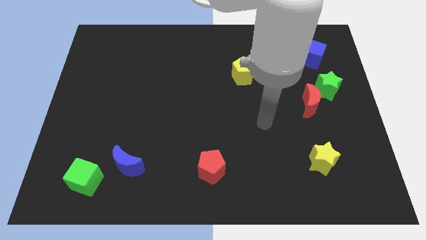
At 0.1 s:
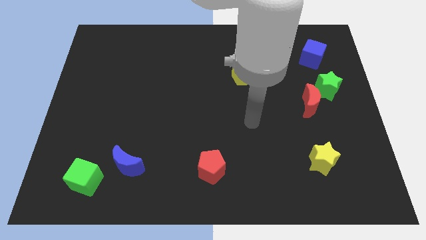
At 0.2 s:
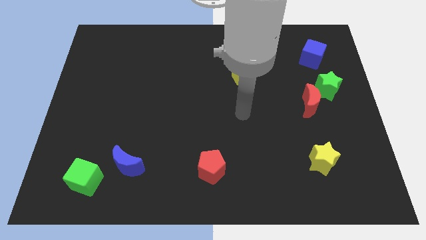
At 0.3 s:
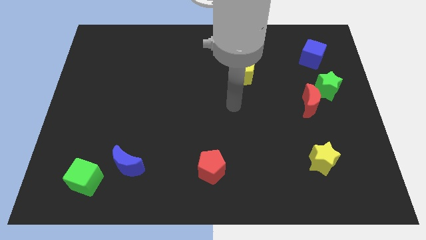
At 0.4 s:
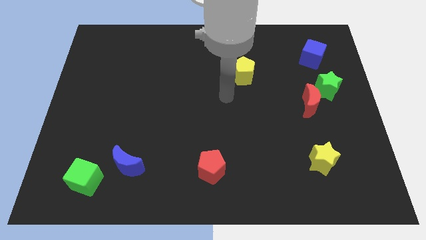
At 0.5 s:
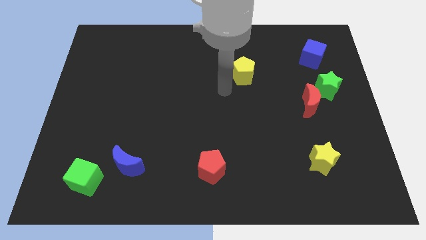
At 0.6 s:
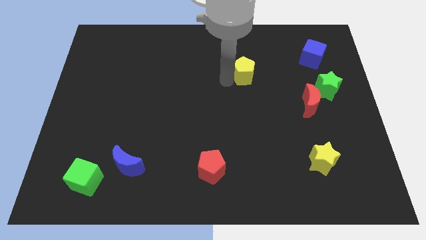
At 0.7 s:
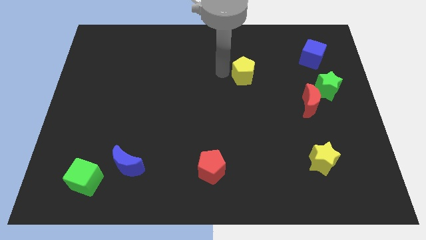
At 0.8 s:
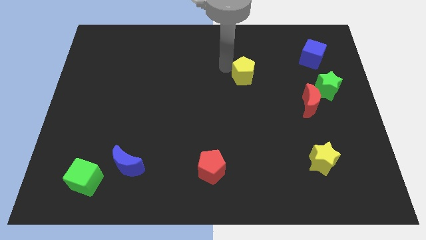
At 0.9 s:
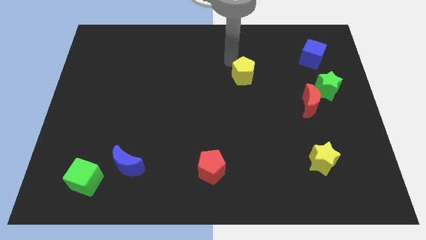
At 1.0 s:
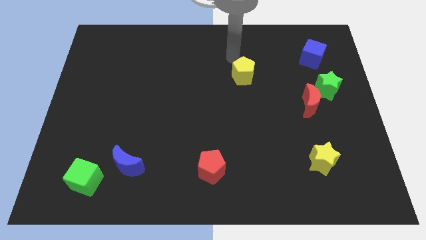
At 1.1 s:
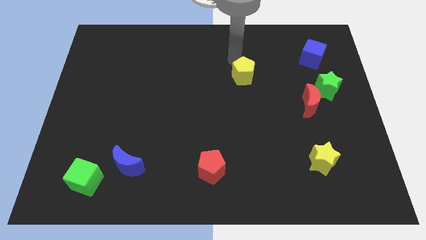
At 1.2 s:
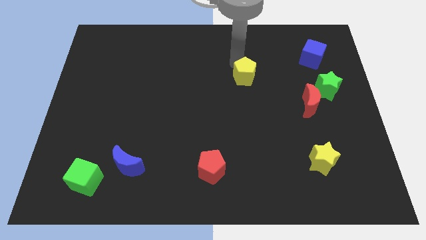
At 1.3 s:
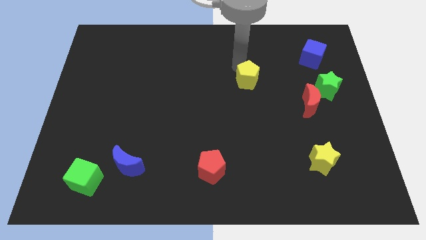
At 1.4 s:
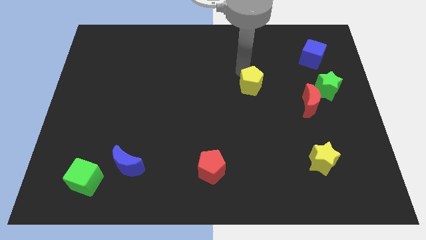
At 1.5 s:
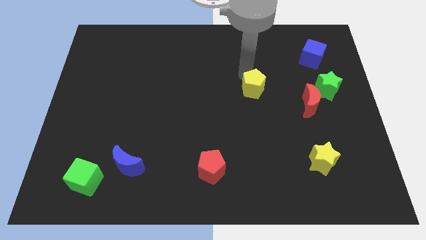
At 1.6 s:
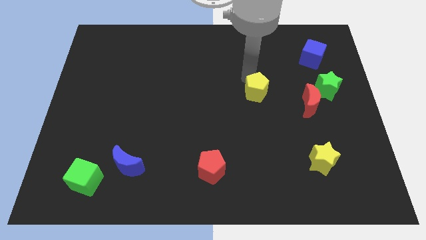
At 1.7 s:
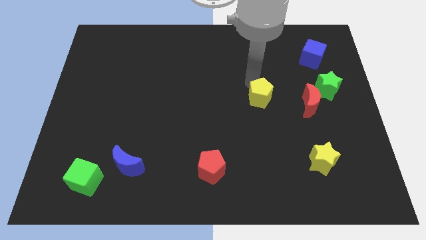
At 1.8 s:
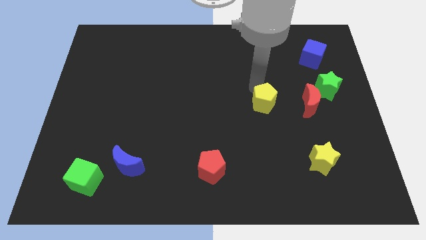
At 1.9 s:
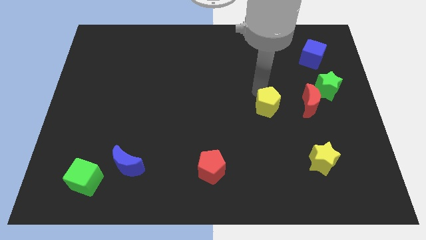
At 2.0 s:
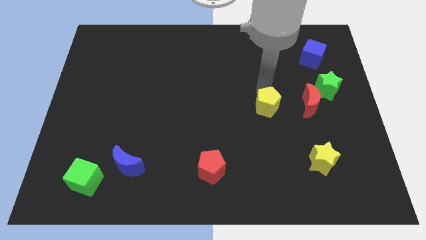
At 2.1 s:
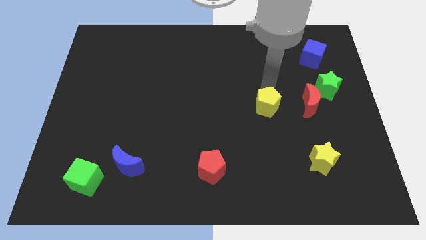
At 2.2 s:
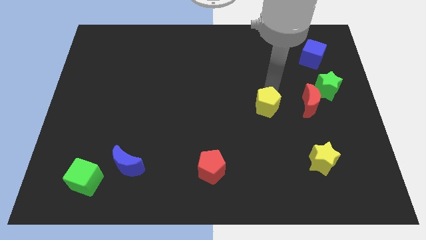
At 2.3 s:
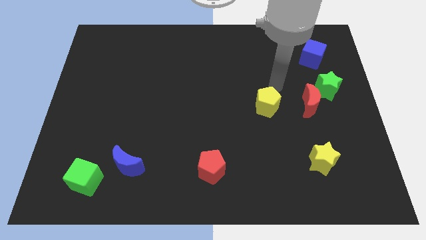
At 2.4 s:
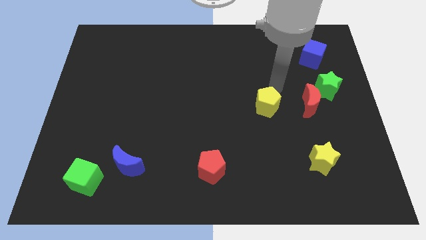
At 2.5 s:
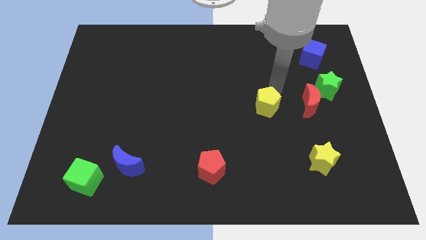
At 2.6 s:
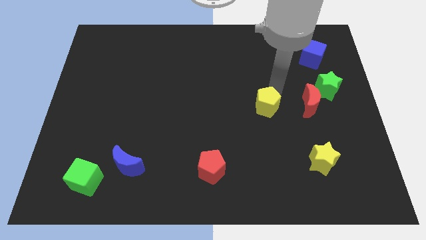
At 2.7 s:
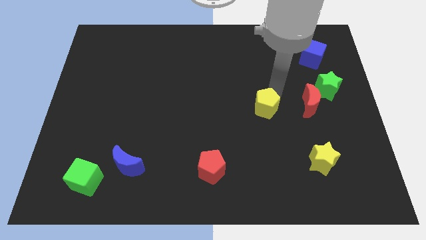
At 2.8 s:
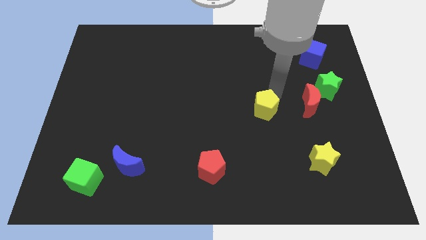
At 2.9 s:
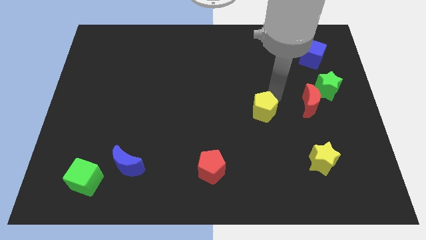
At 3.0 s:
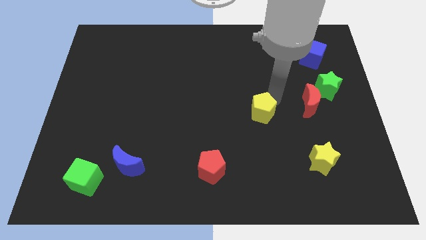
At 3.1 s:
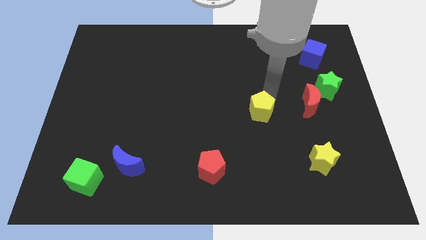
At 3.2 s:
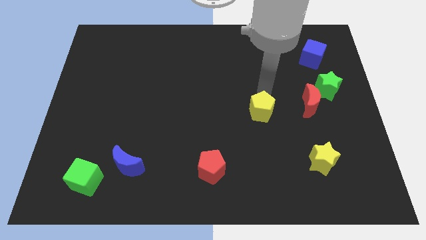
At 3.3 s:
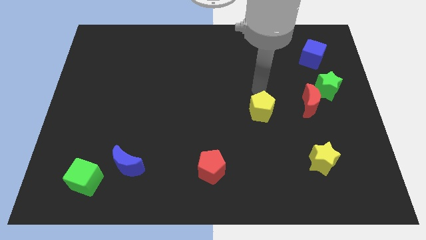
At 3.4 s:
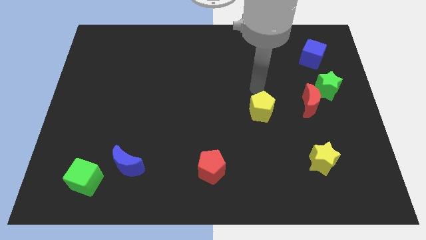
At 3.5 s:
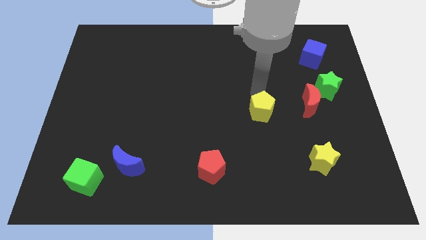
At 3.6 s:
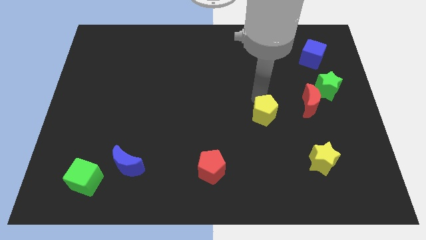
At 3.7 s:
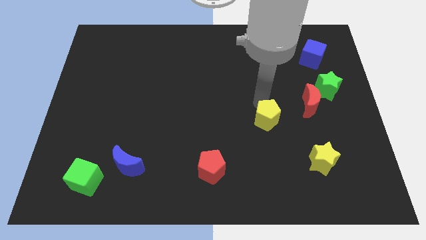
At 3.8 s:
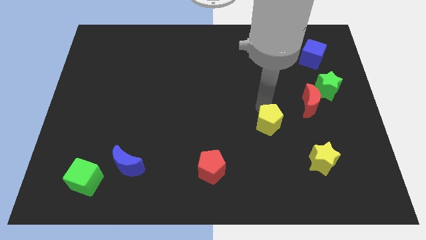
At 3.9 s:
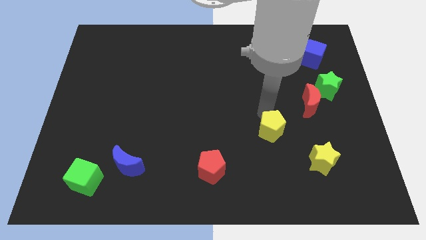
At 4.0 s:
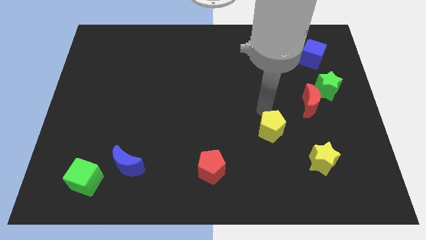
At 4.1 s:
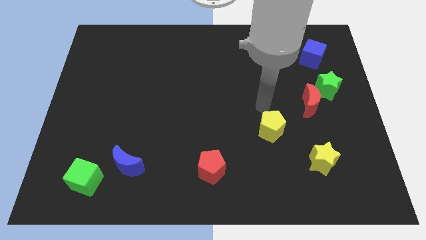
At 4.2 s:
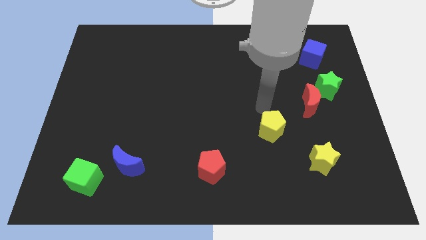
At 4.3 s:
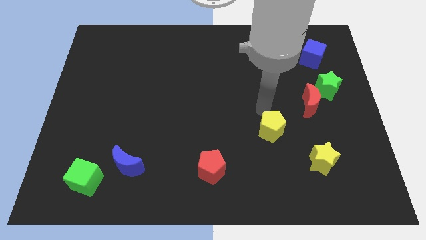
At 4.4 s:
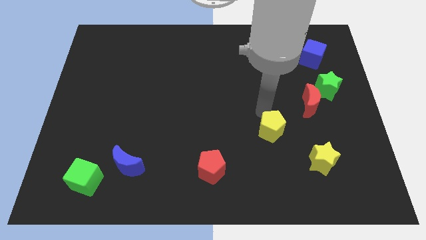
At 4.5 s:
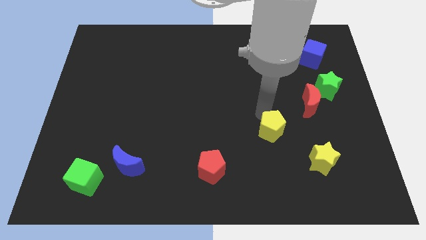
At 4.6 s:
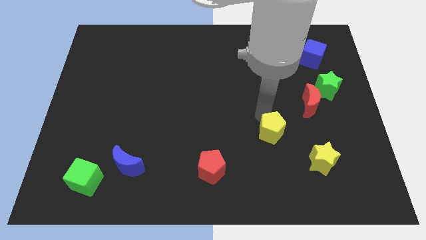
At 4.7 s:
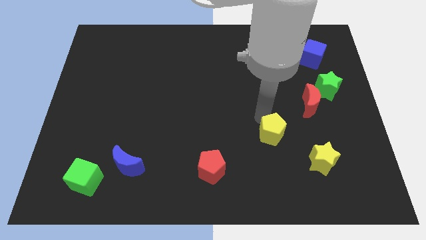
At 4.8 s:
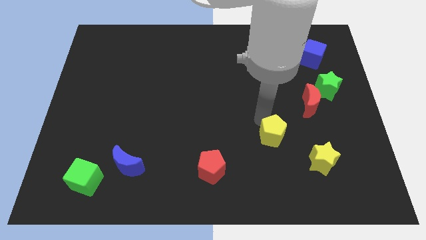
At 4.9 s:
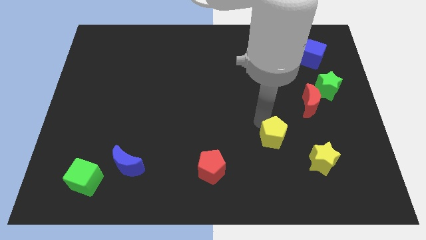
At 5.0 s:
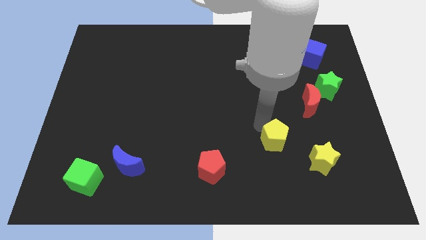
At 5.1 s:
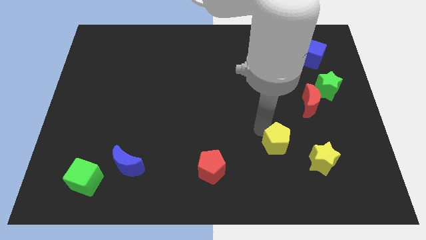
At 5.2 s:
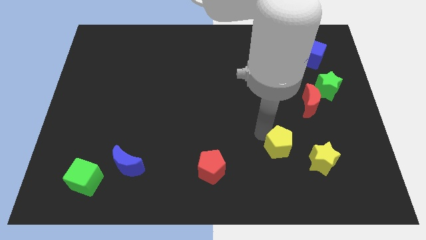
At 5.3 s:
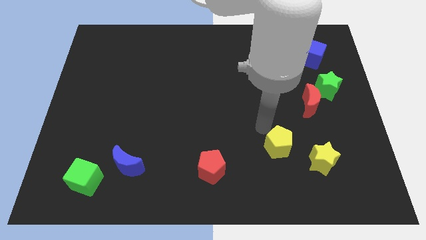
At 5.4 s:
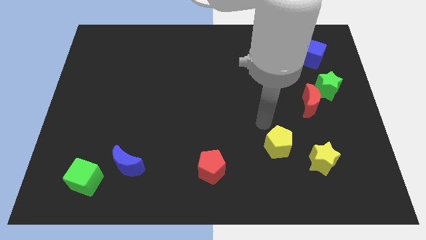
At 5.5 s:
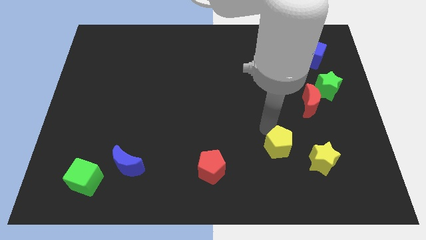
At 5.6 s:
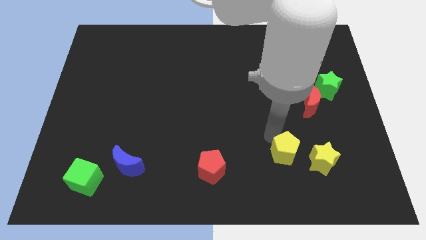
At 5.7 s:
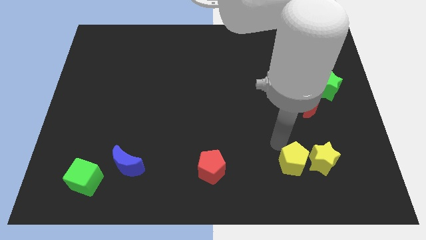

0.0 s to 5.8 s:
put the yellow pentagon to the bottom left of the yellow star

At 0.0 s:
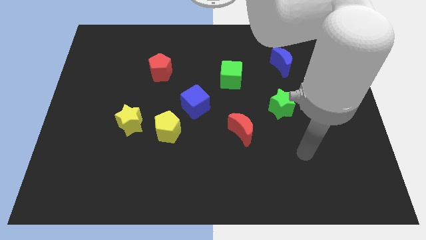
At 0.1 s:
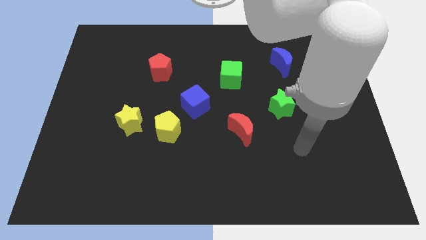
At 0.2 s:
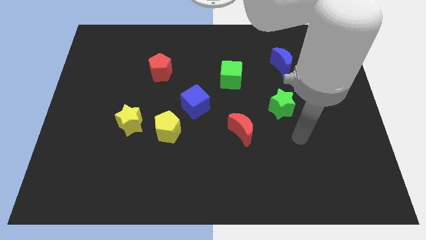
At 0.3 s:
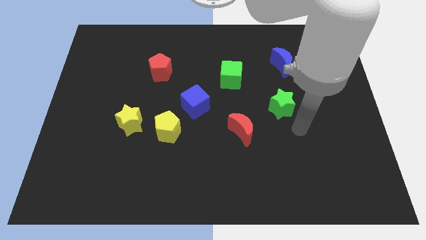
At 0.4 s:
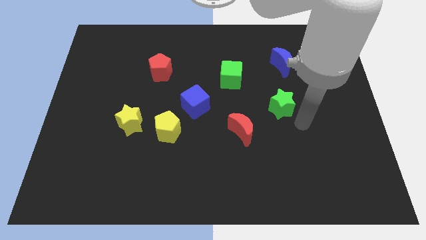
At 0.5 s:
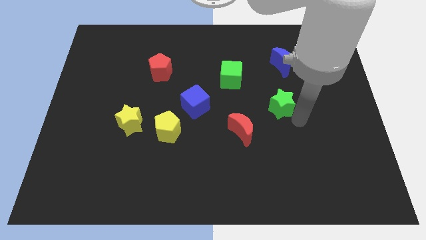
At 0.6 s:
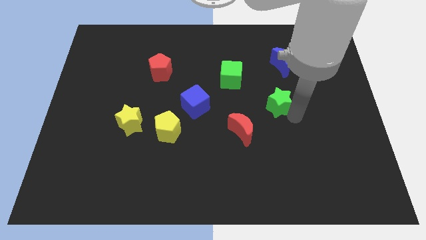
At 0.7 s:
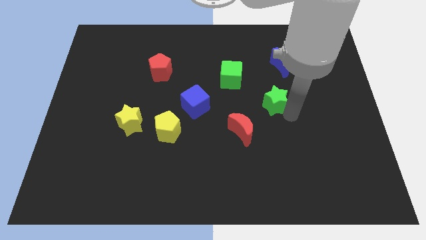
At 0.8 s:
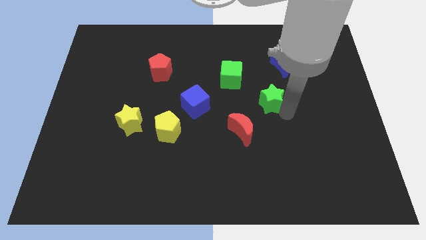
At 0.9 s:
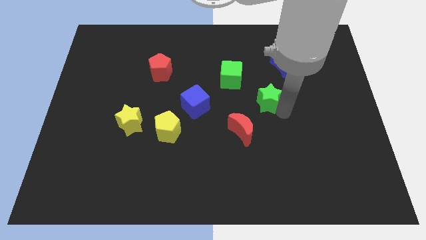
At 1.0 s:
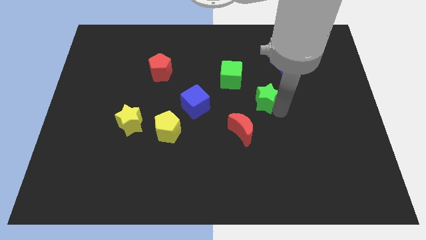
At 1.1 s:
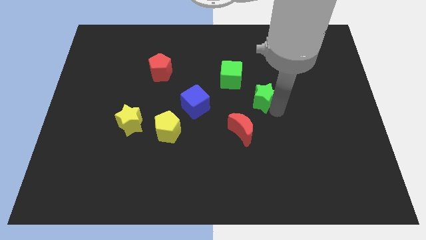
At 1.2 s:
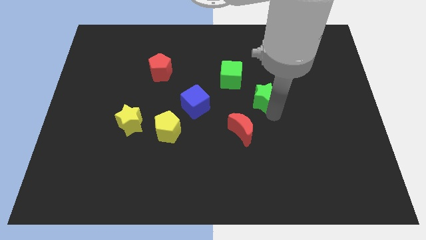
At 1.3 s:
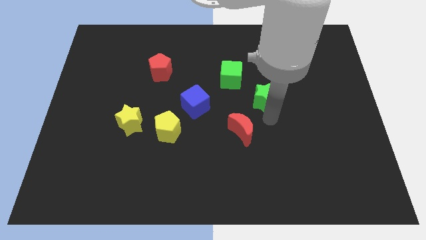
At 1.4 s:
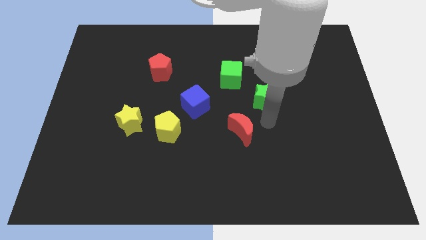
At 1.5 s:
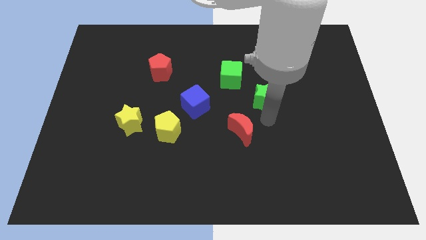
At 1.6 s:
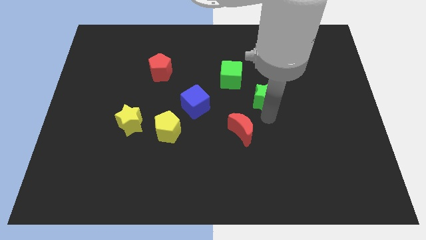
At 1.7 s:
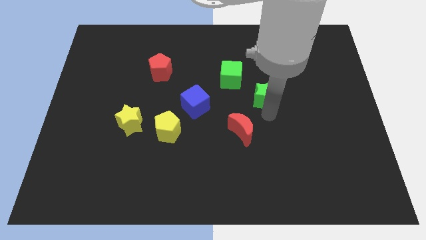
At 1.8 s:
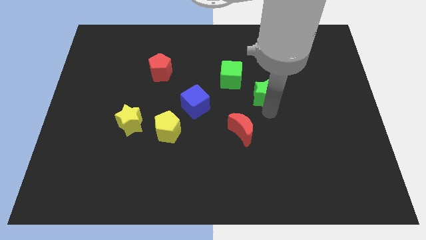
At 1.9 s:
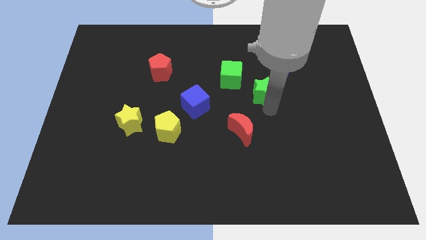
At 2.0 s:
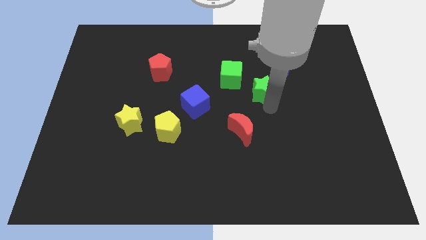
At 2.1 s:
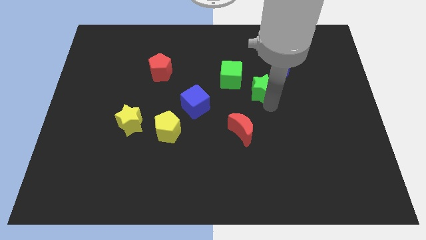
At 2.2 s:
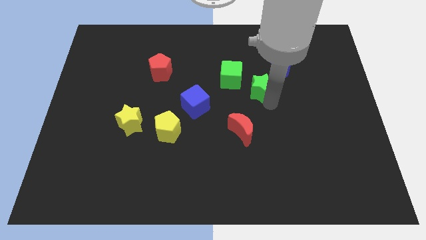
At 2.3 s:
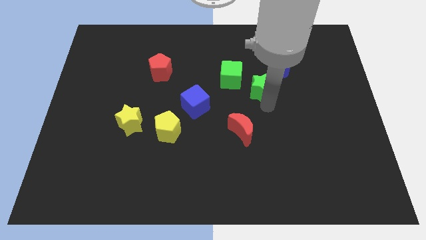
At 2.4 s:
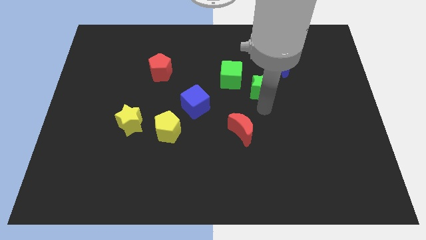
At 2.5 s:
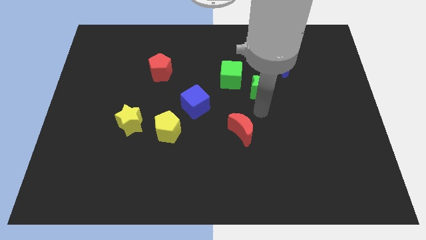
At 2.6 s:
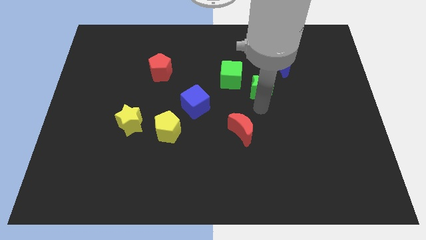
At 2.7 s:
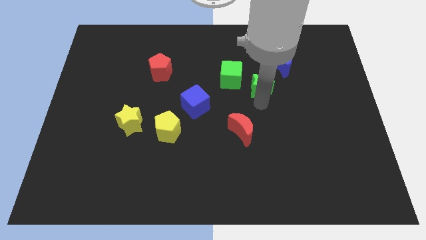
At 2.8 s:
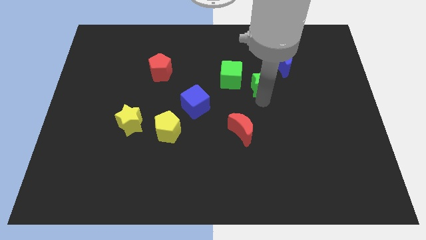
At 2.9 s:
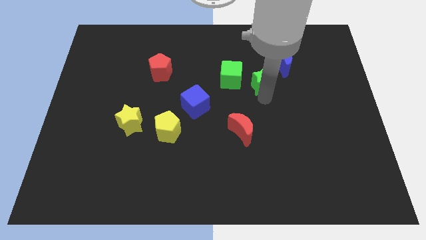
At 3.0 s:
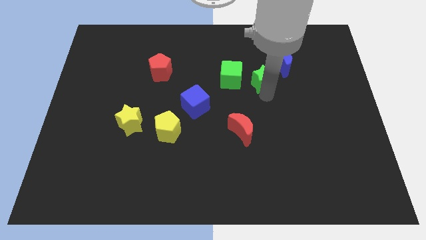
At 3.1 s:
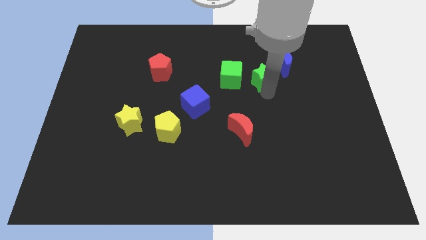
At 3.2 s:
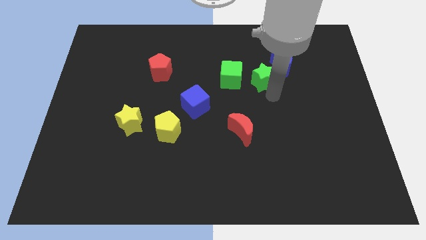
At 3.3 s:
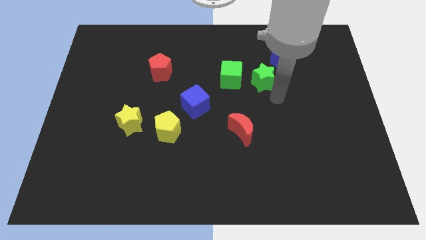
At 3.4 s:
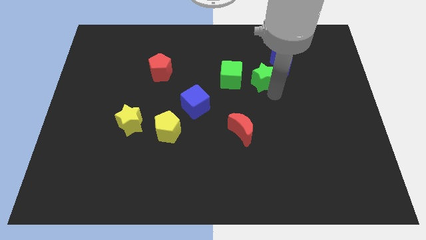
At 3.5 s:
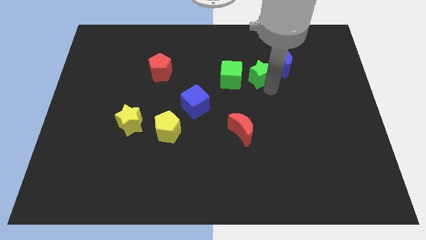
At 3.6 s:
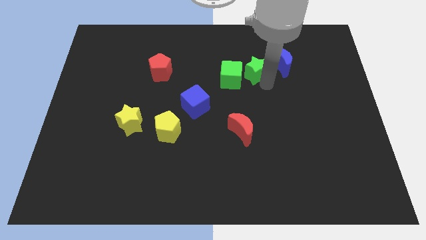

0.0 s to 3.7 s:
push the green star diagonally up and to the right of the green cube
